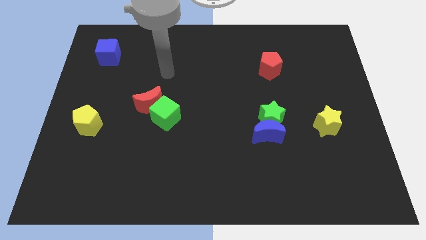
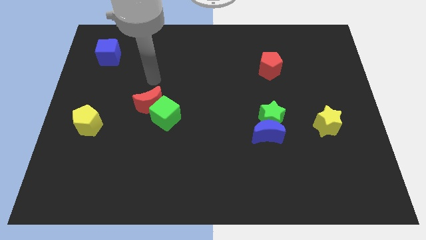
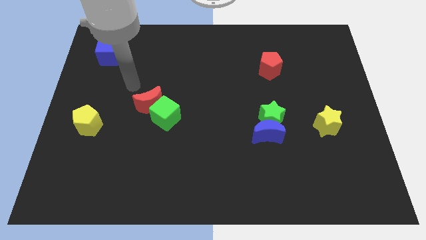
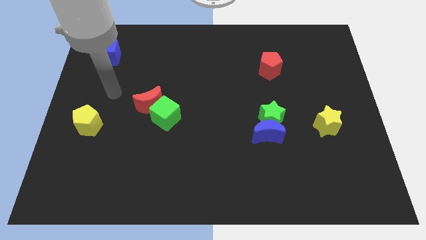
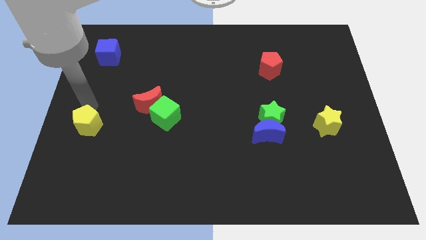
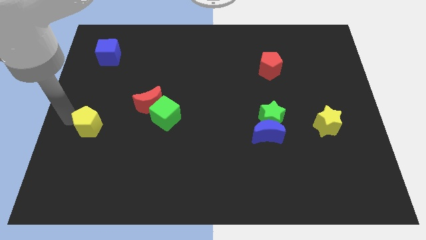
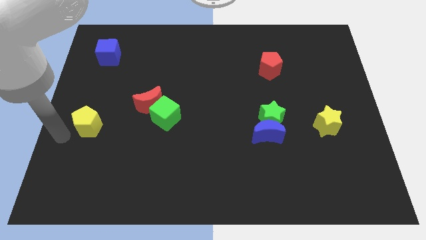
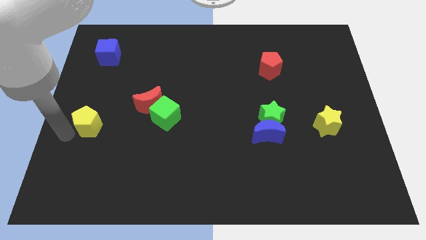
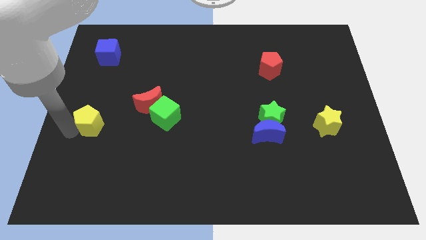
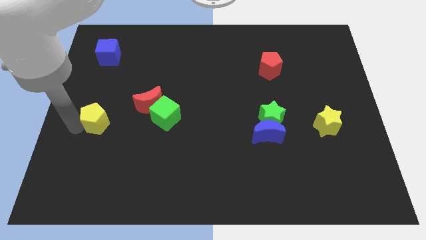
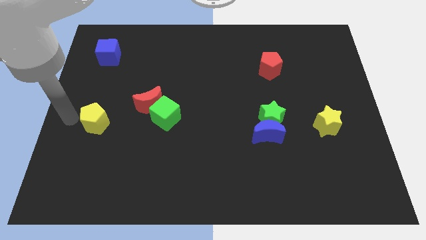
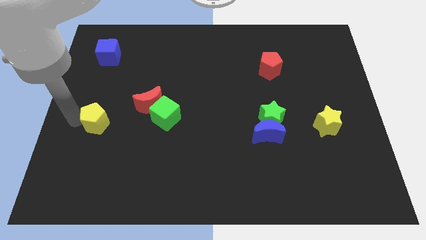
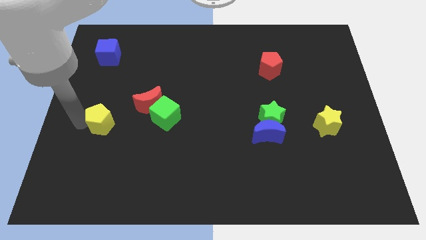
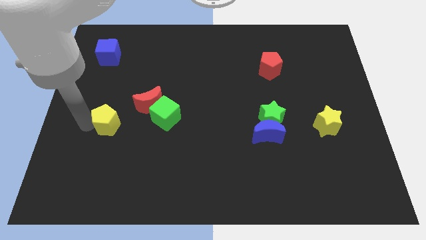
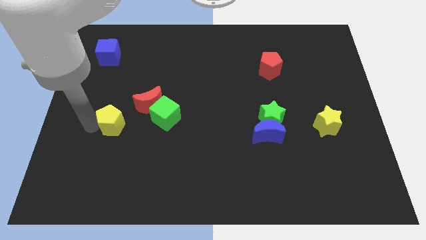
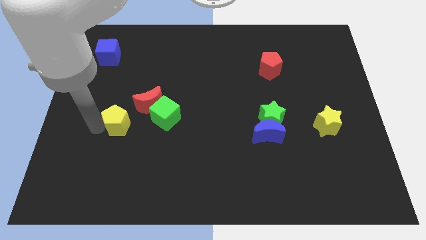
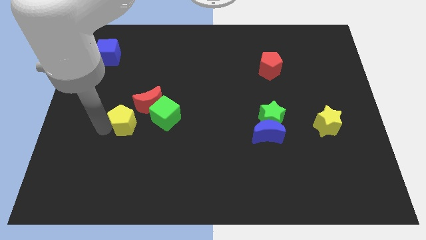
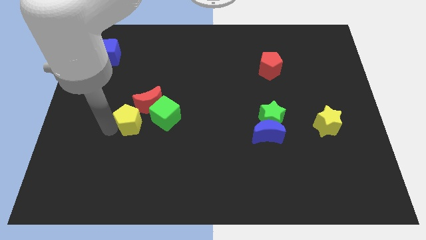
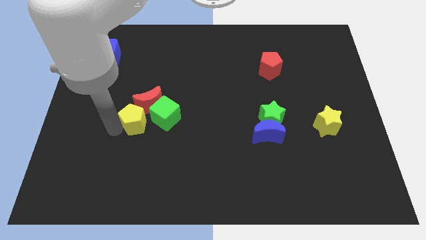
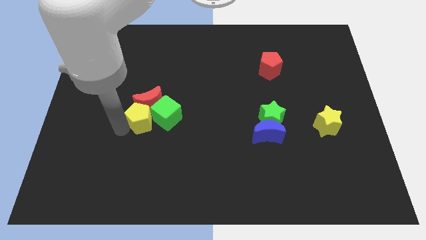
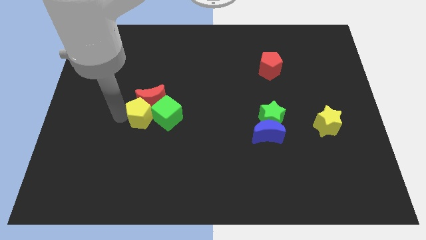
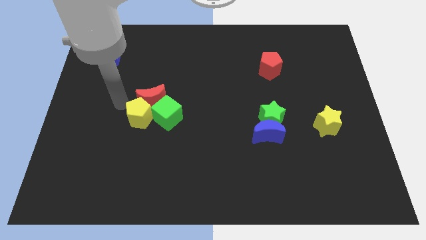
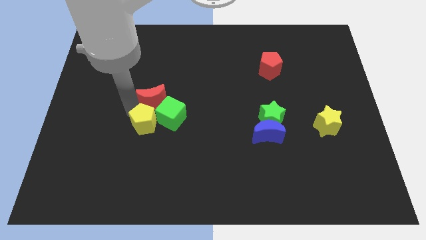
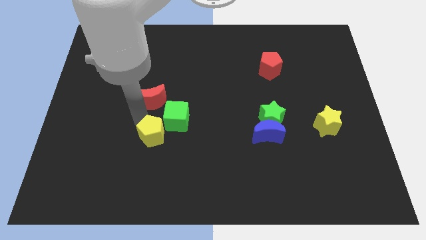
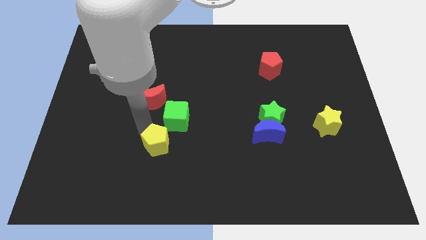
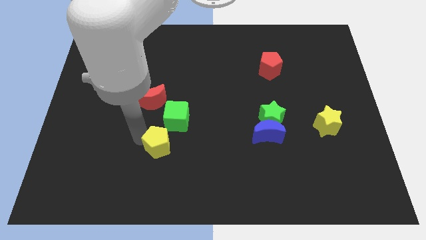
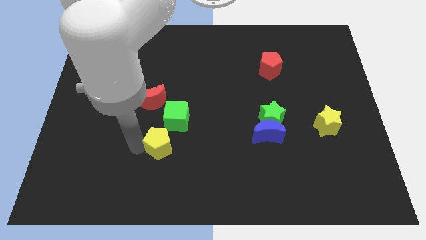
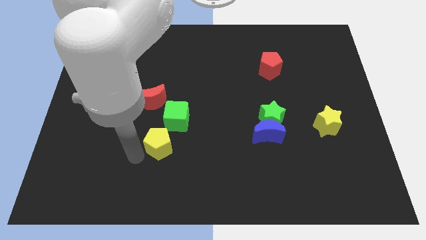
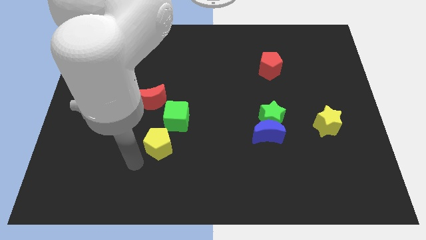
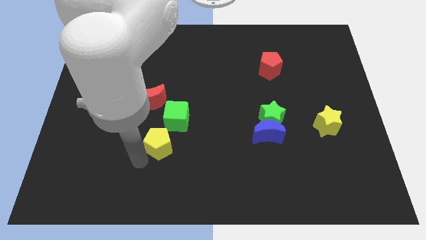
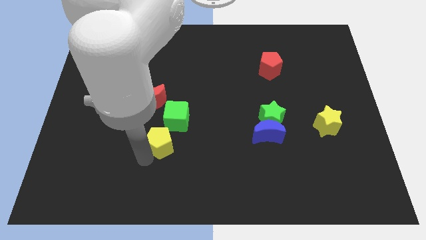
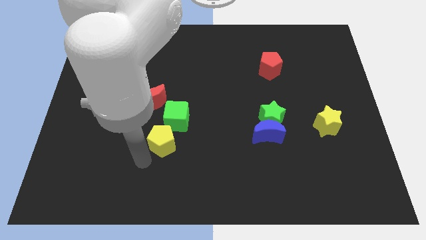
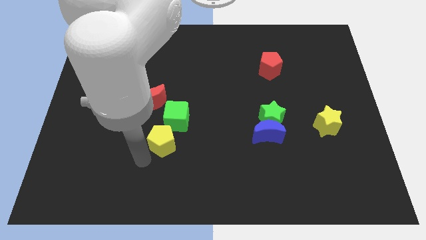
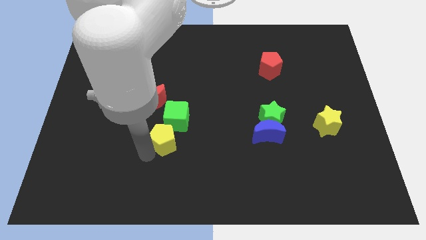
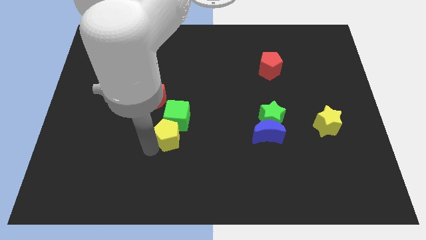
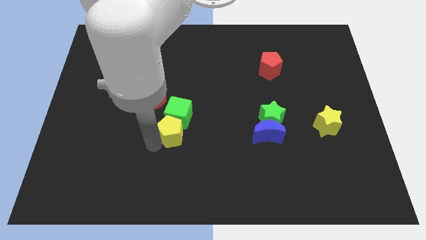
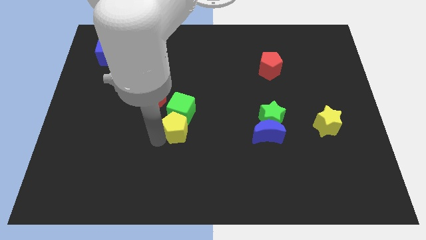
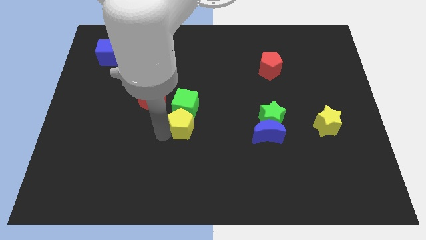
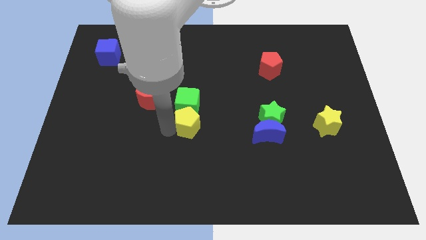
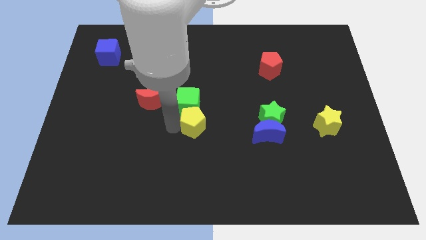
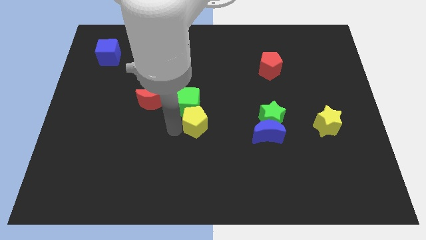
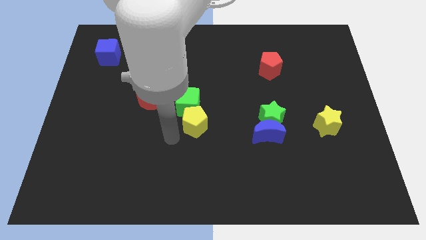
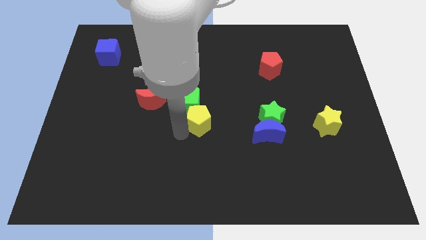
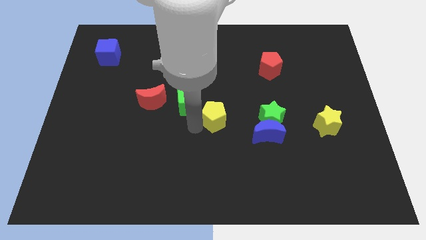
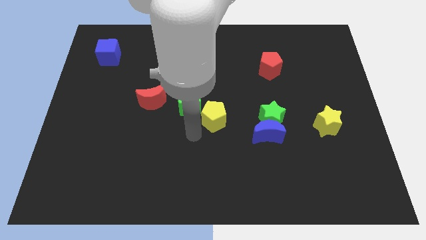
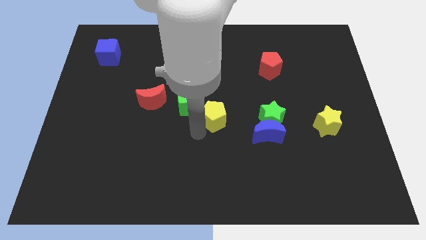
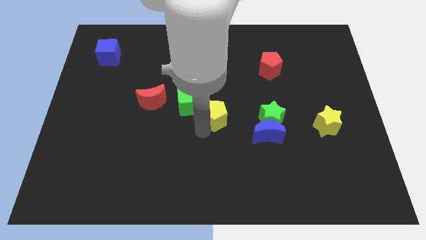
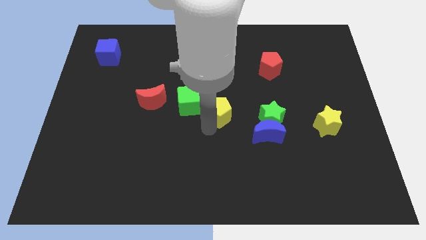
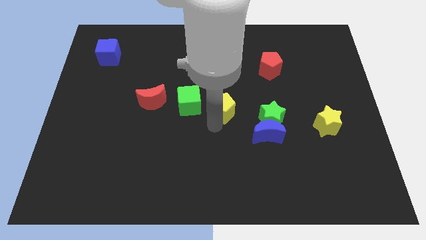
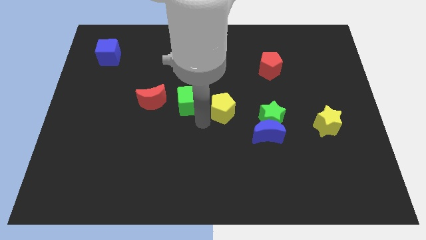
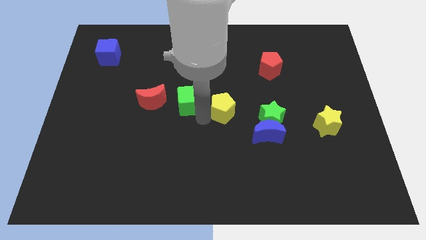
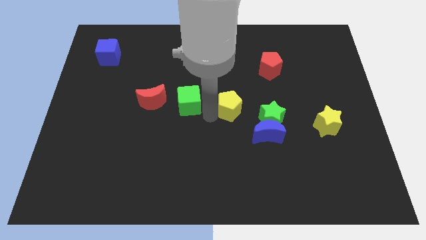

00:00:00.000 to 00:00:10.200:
slide the yellow pentagon diagonally up and to the left of the green star

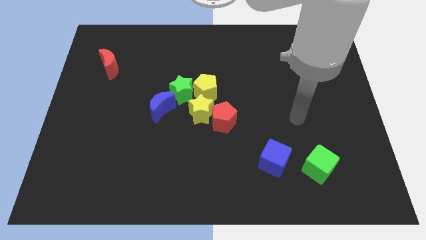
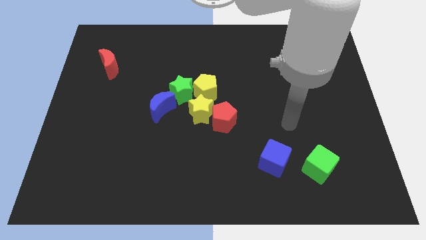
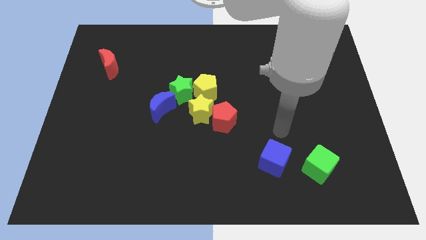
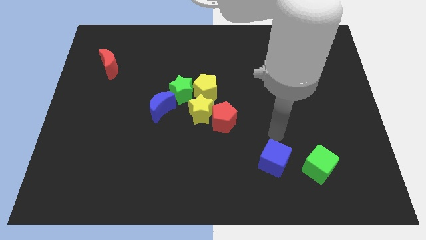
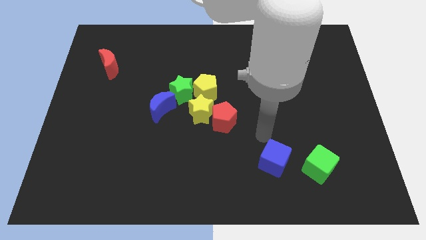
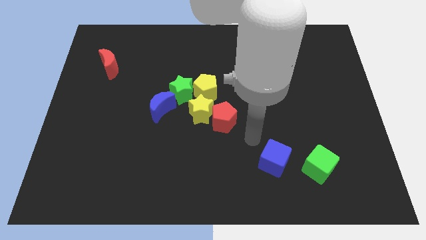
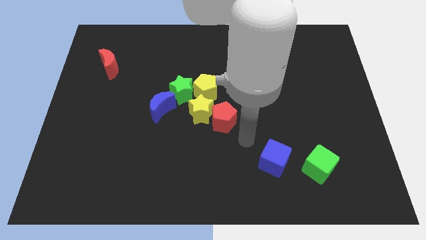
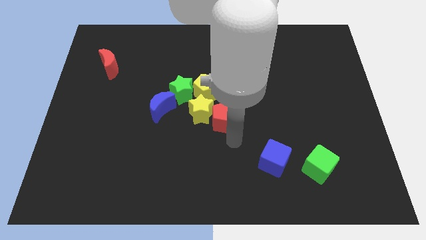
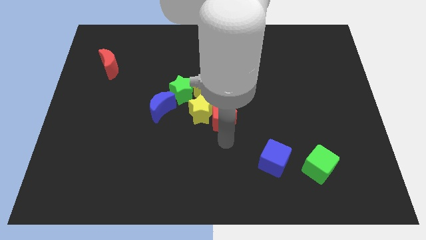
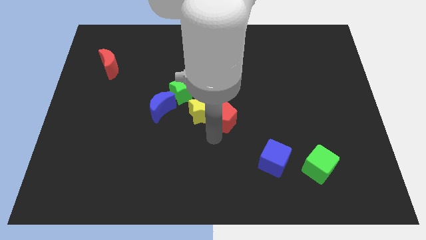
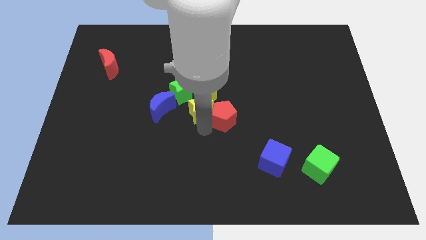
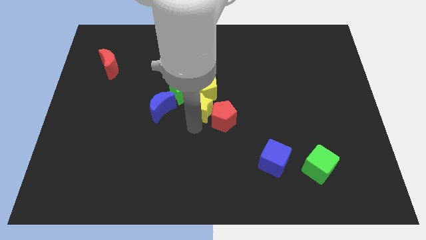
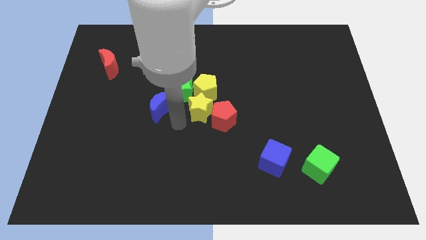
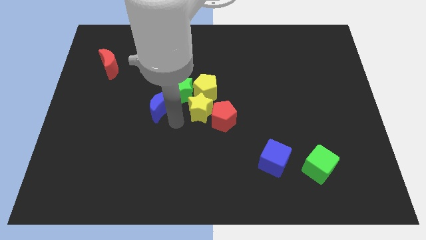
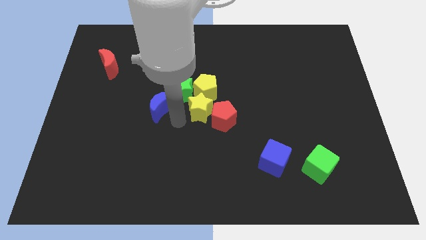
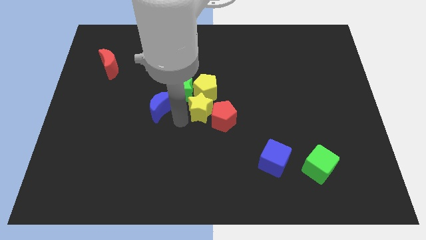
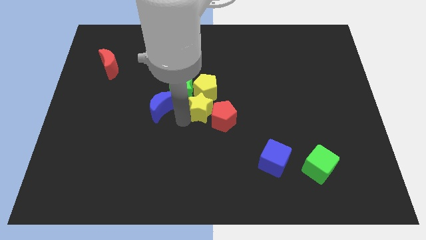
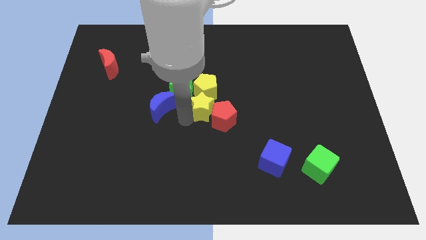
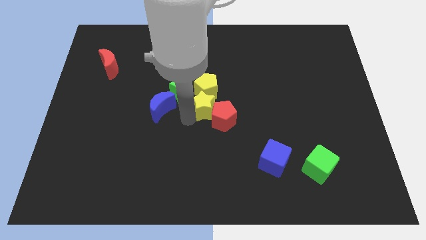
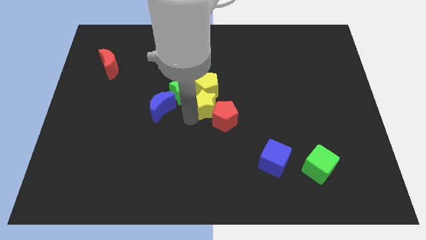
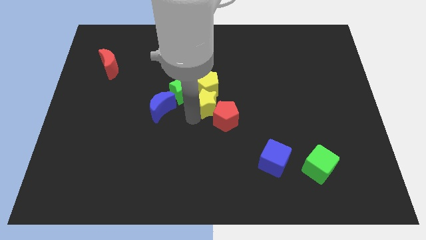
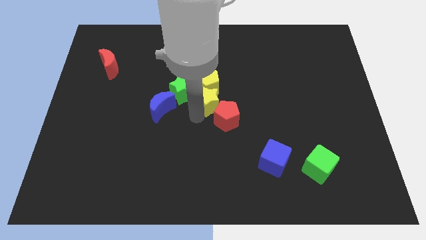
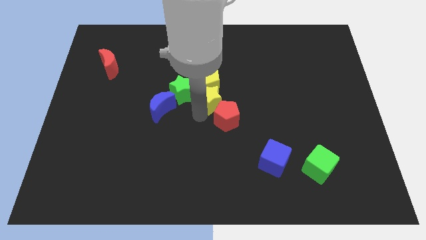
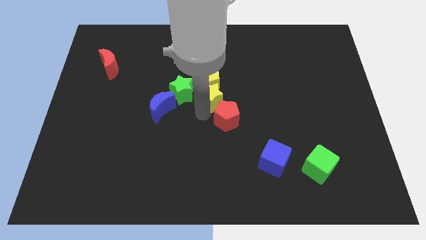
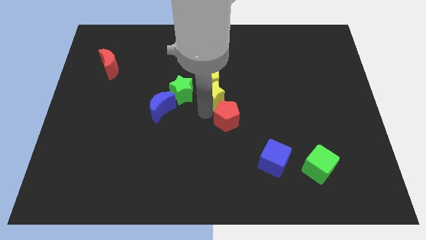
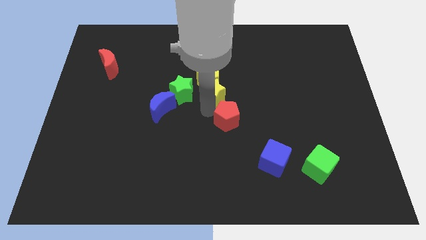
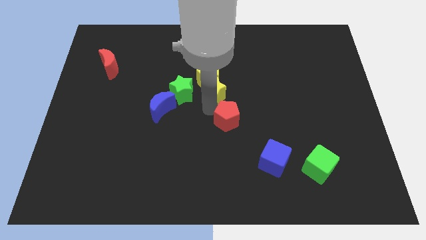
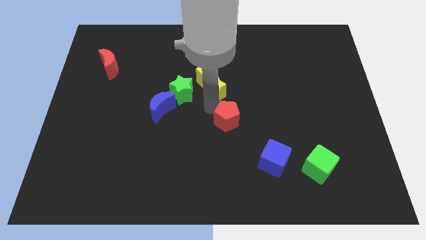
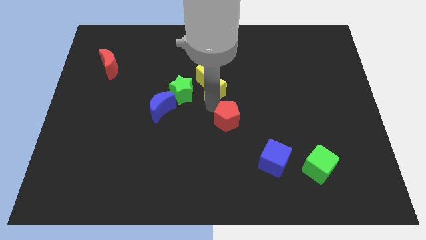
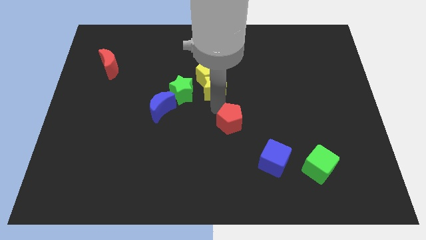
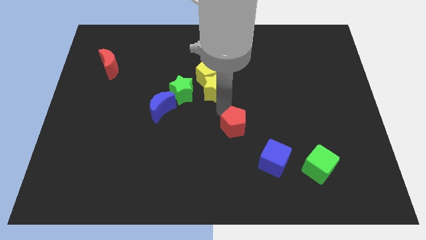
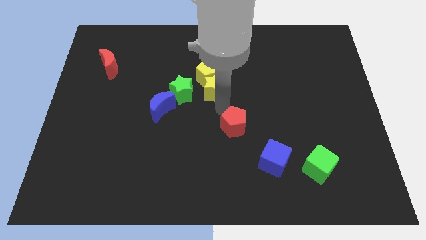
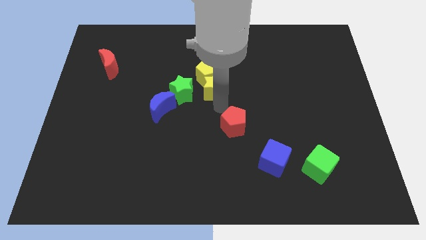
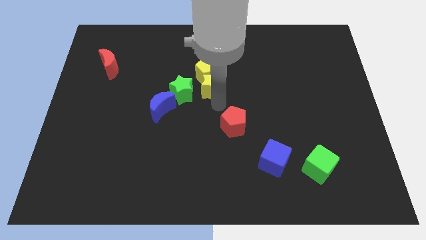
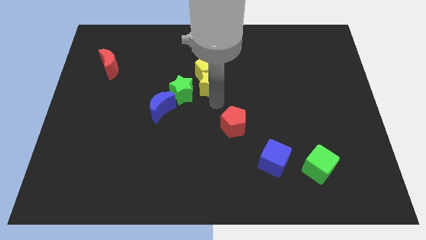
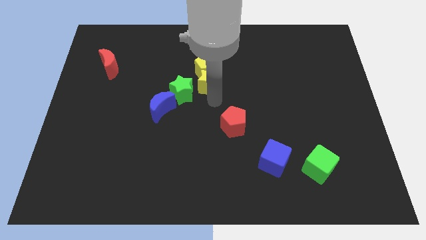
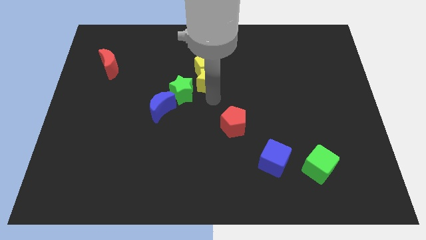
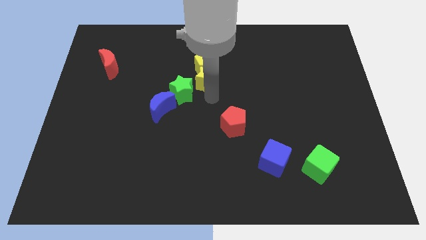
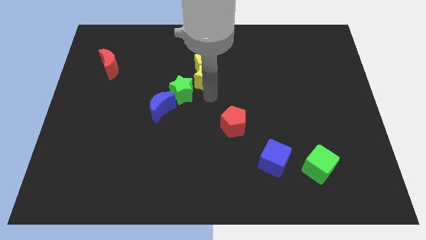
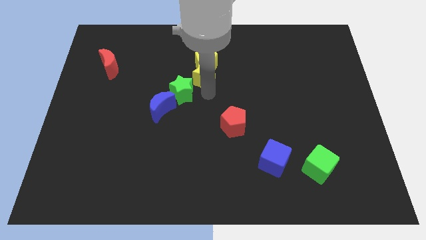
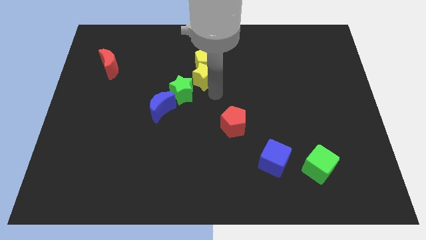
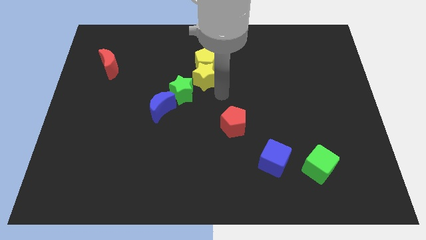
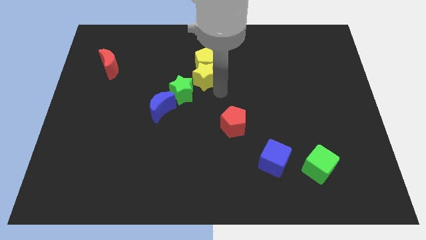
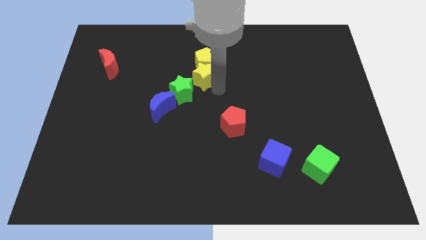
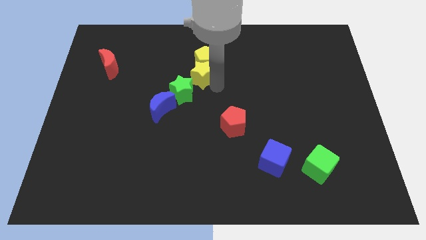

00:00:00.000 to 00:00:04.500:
move the yellow star to the top of the green star
